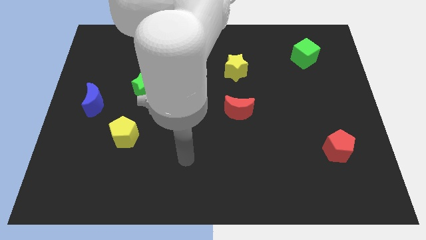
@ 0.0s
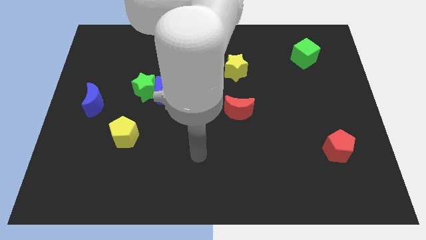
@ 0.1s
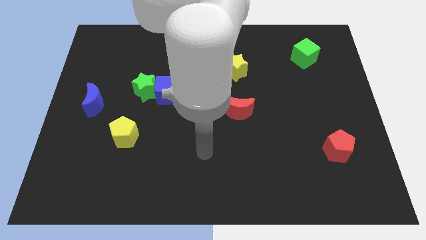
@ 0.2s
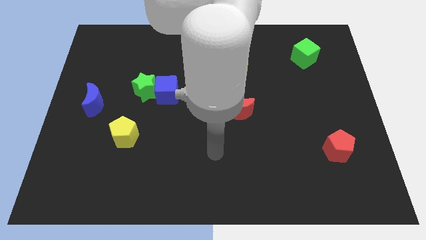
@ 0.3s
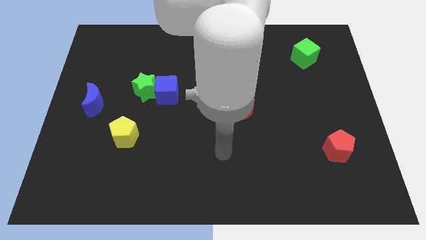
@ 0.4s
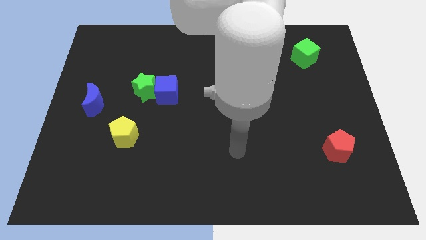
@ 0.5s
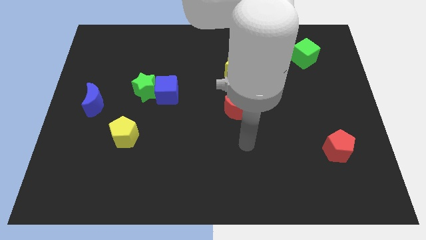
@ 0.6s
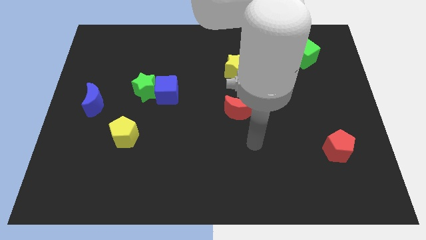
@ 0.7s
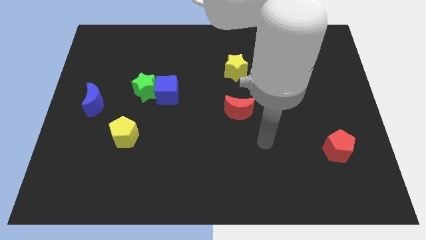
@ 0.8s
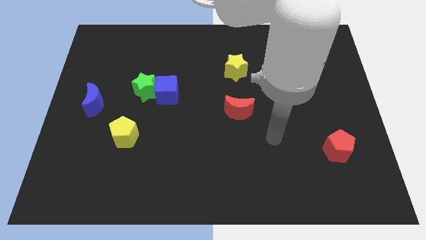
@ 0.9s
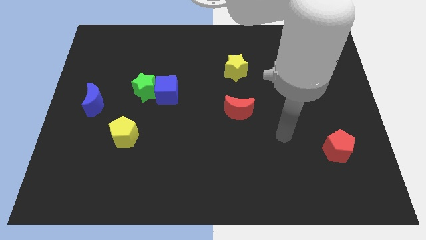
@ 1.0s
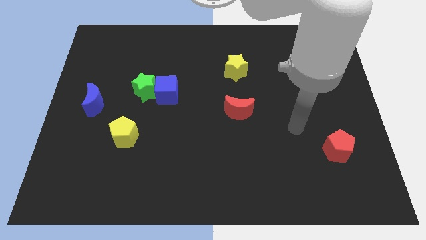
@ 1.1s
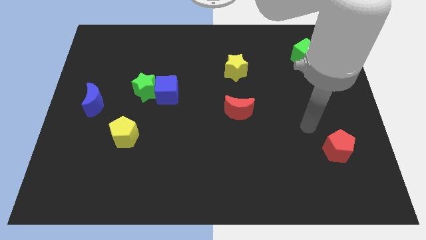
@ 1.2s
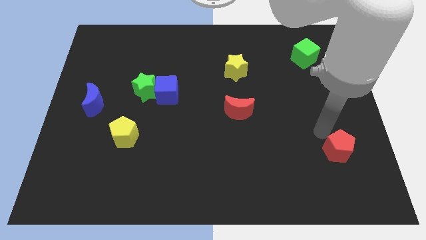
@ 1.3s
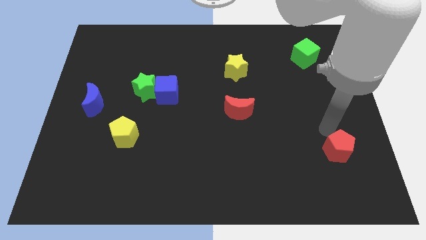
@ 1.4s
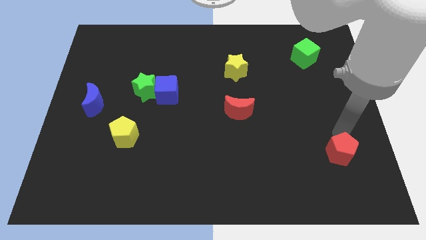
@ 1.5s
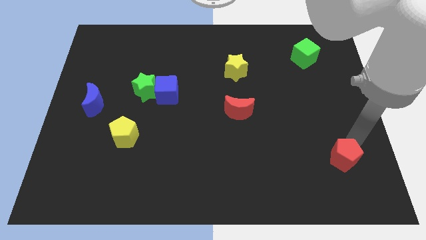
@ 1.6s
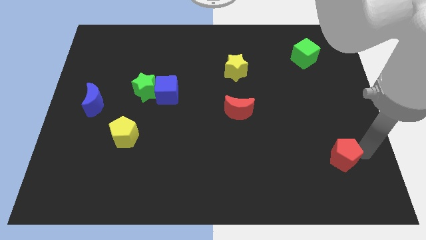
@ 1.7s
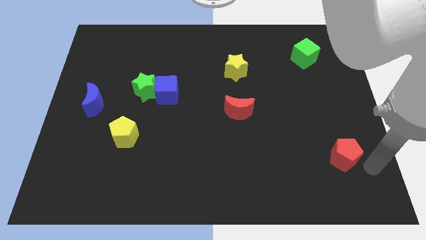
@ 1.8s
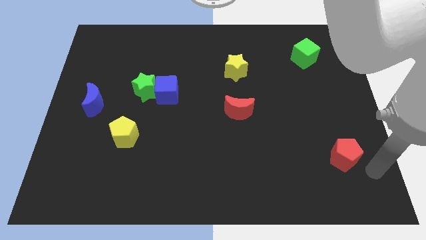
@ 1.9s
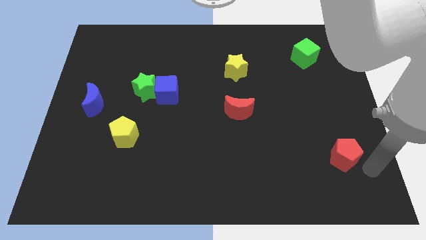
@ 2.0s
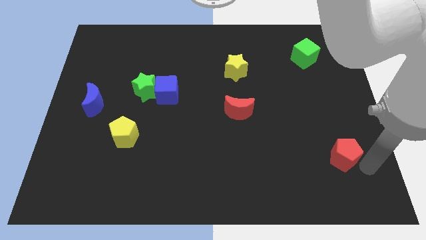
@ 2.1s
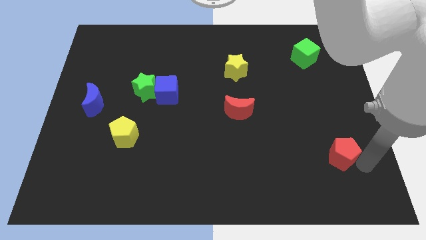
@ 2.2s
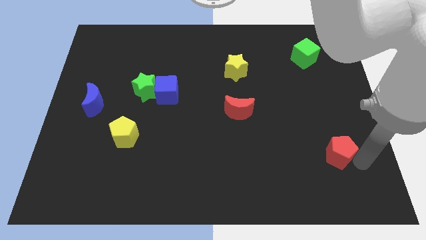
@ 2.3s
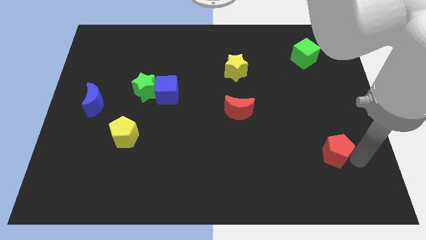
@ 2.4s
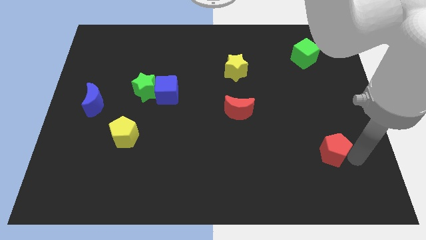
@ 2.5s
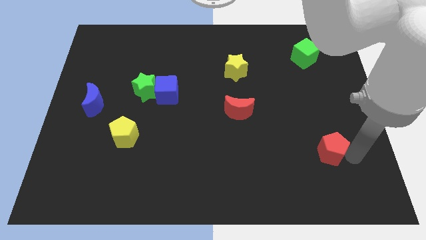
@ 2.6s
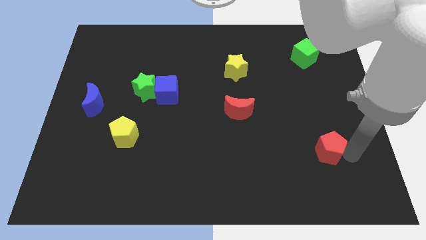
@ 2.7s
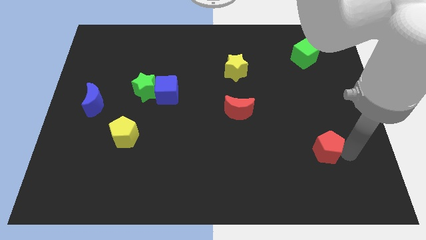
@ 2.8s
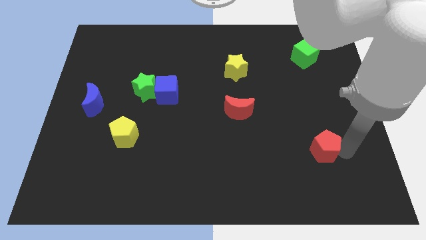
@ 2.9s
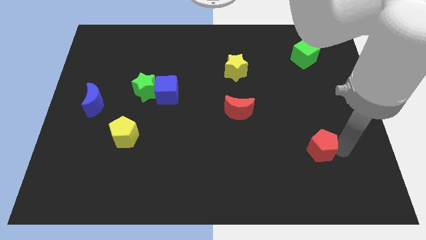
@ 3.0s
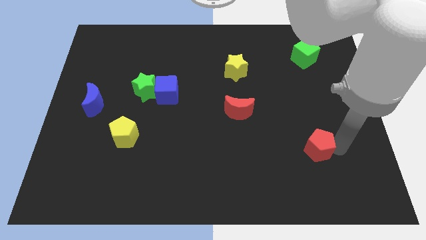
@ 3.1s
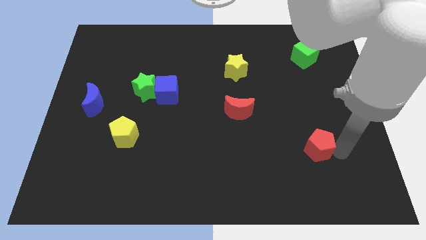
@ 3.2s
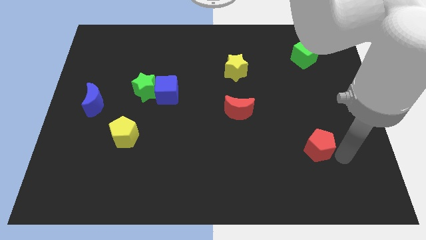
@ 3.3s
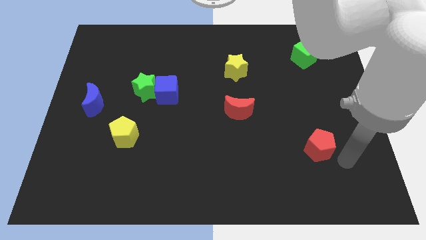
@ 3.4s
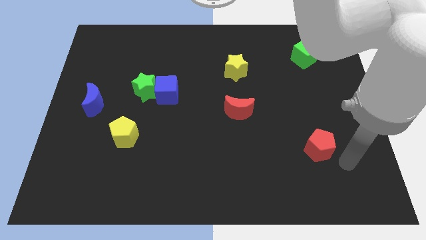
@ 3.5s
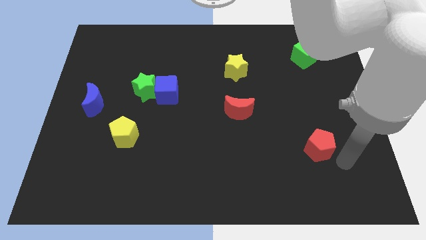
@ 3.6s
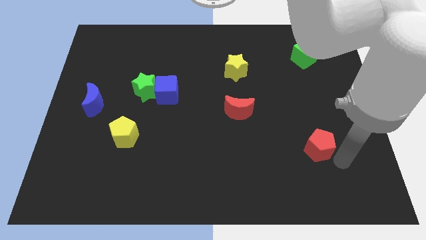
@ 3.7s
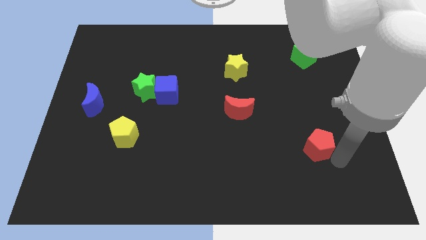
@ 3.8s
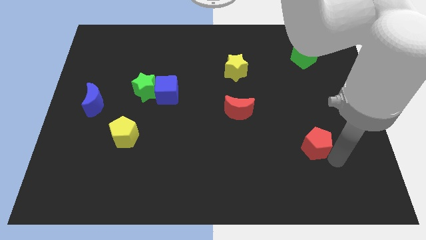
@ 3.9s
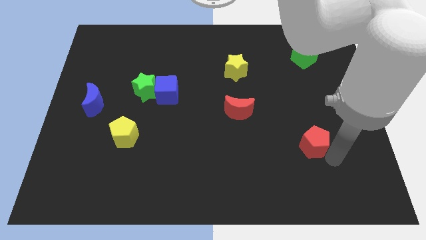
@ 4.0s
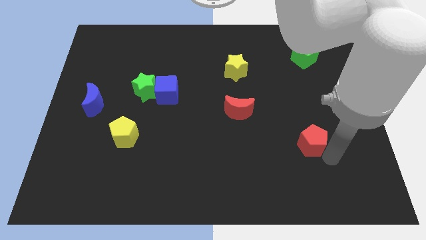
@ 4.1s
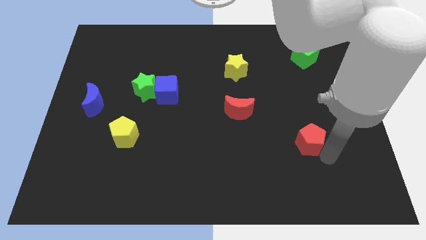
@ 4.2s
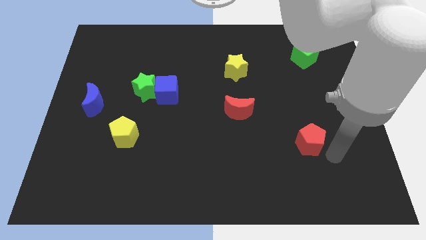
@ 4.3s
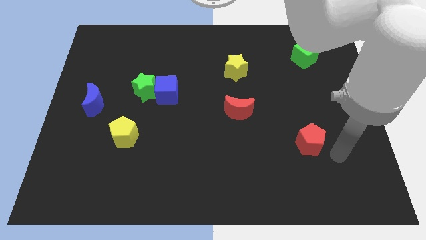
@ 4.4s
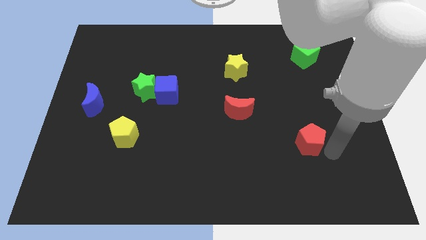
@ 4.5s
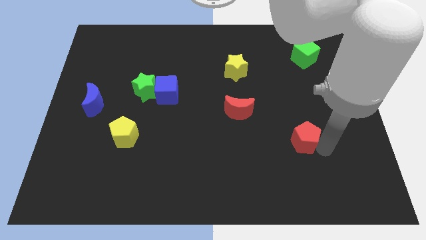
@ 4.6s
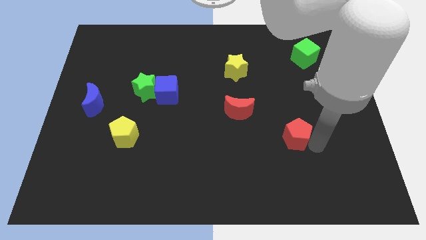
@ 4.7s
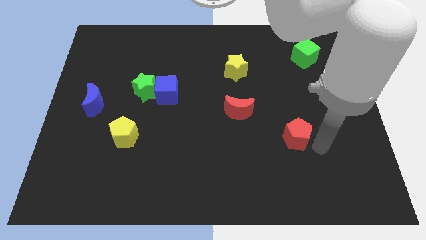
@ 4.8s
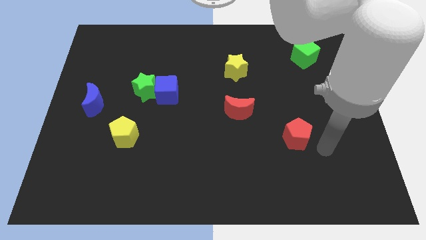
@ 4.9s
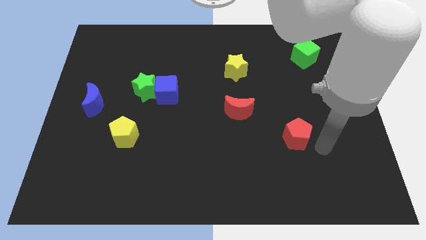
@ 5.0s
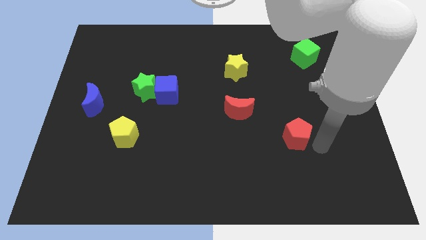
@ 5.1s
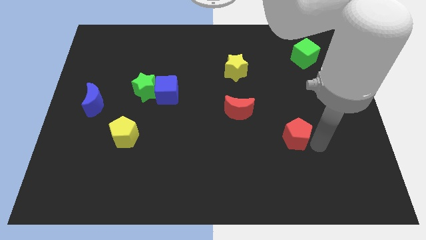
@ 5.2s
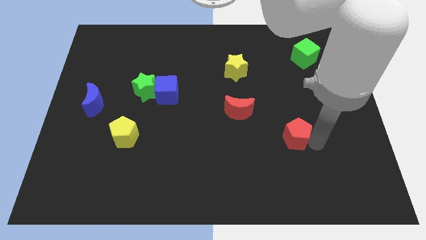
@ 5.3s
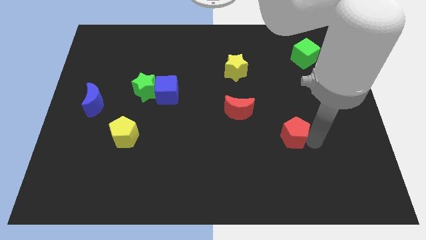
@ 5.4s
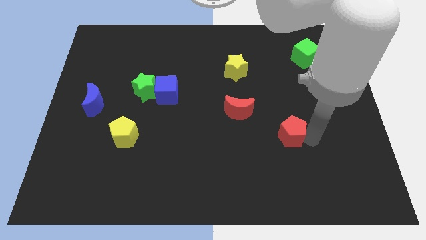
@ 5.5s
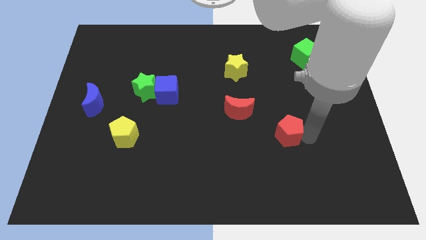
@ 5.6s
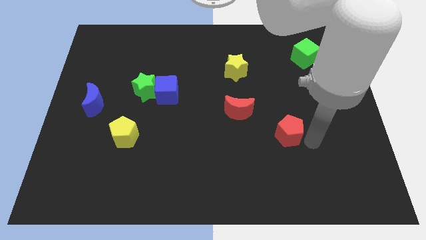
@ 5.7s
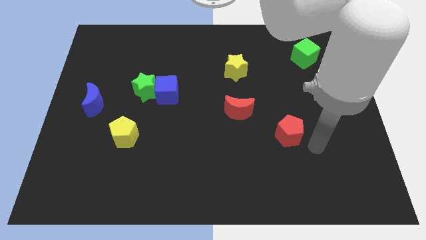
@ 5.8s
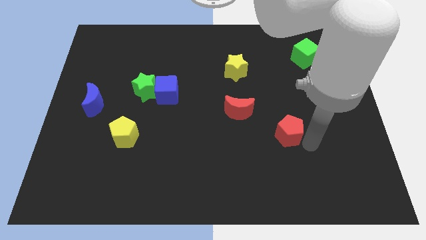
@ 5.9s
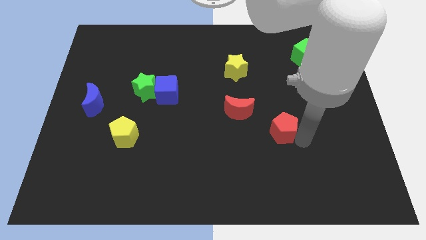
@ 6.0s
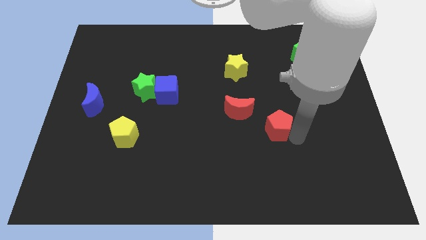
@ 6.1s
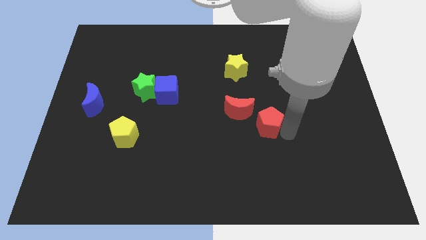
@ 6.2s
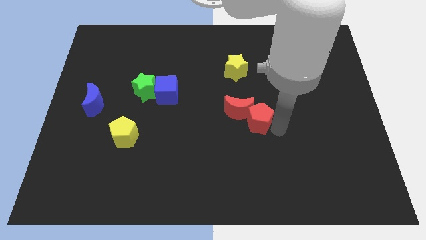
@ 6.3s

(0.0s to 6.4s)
push the red pentagon to the red moon

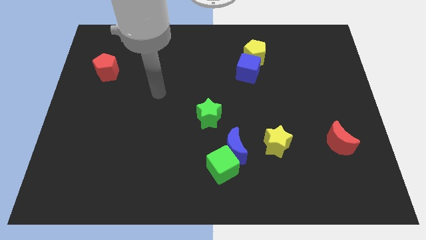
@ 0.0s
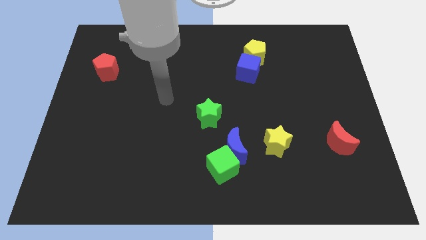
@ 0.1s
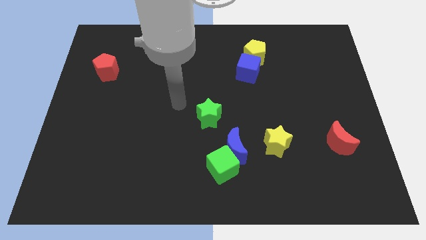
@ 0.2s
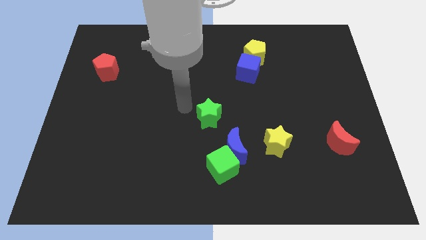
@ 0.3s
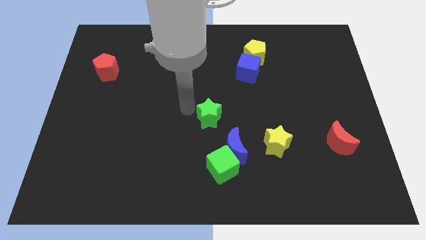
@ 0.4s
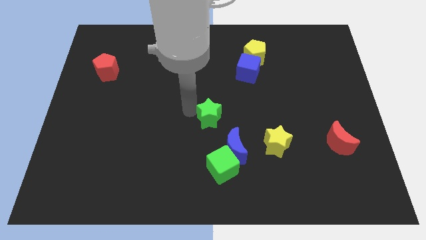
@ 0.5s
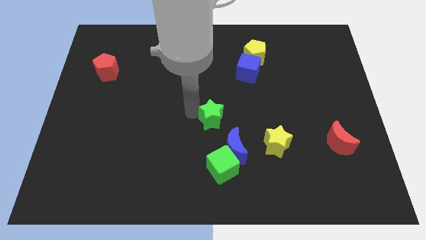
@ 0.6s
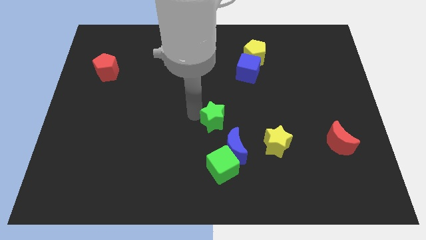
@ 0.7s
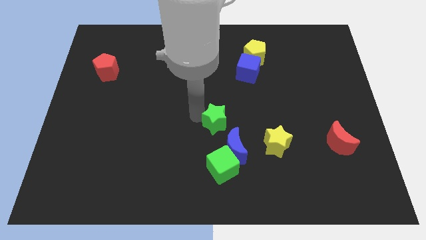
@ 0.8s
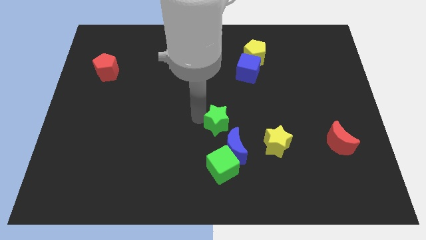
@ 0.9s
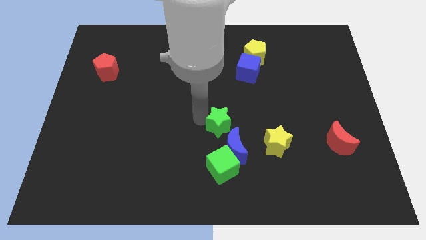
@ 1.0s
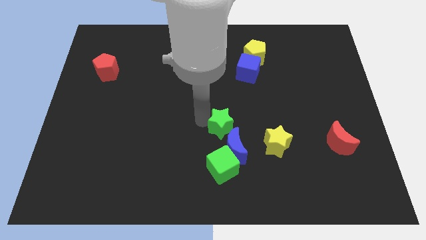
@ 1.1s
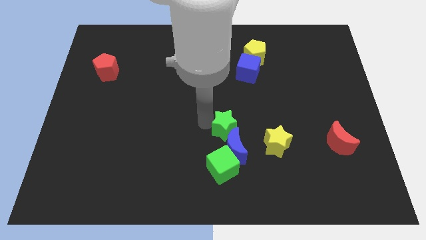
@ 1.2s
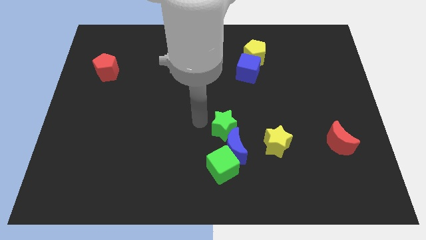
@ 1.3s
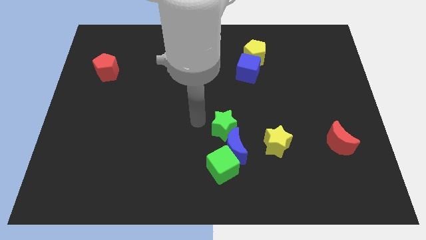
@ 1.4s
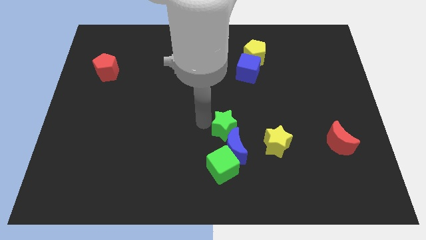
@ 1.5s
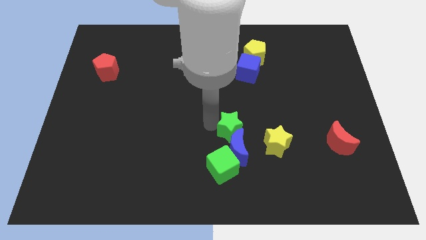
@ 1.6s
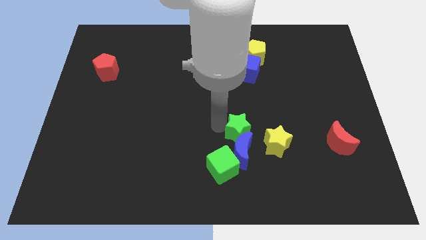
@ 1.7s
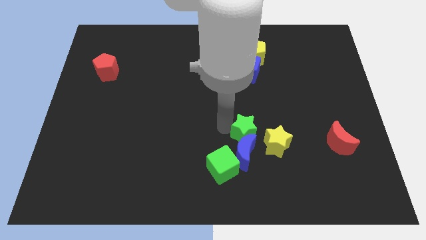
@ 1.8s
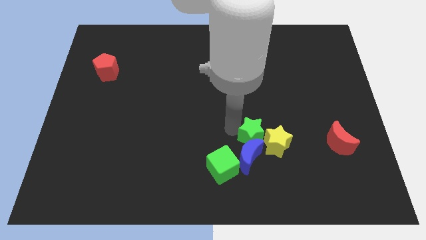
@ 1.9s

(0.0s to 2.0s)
move the green star to the yellow star
